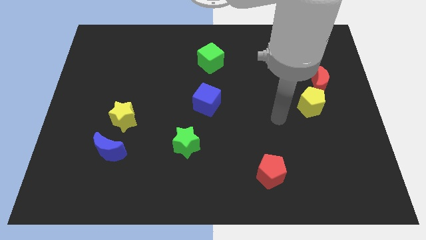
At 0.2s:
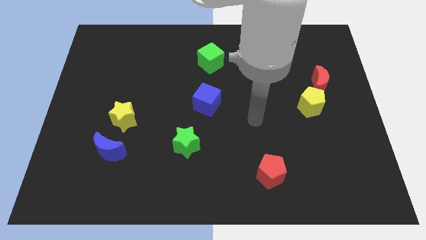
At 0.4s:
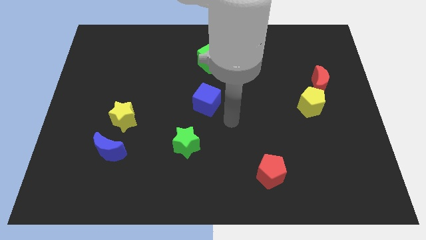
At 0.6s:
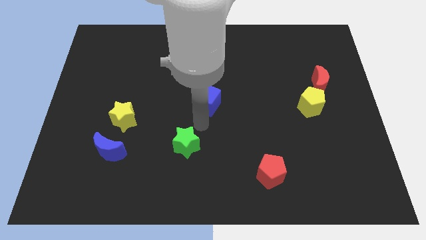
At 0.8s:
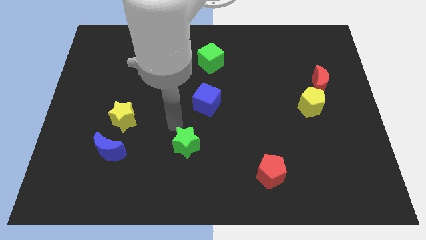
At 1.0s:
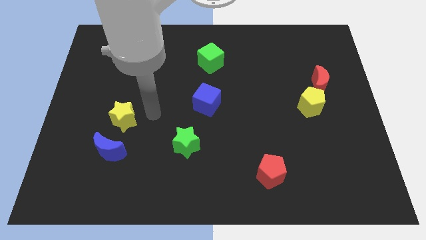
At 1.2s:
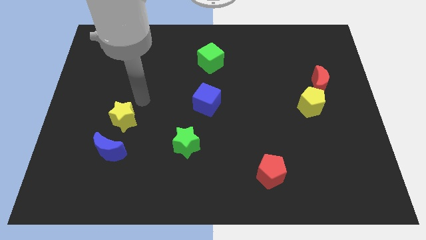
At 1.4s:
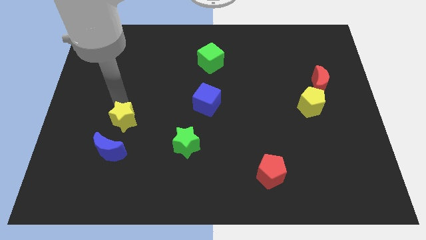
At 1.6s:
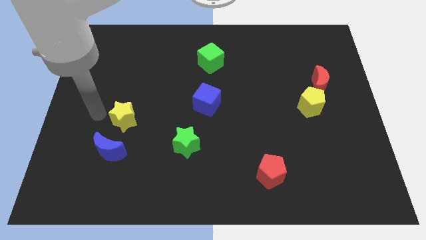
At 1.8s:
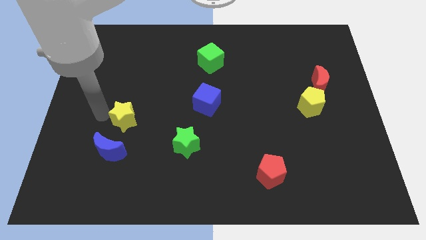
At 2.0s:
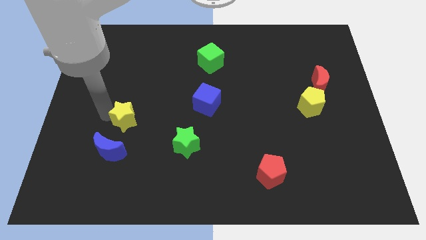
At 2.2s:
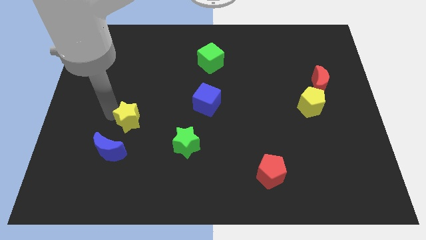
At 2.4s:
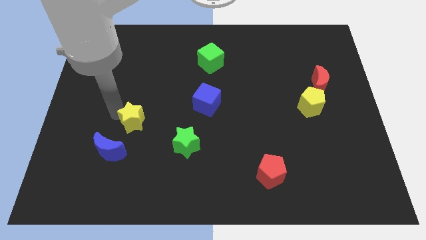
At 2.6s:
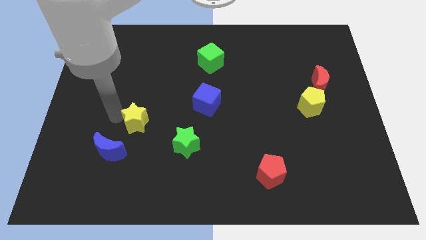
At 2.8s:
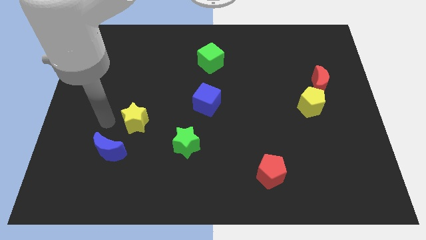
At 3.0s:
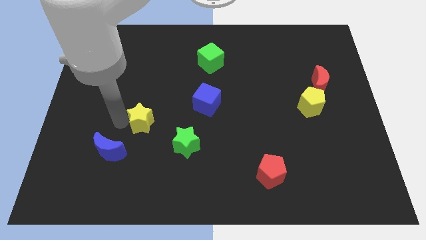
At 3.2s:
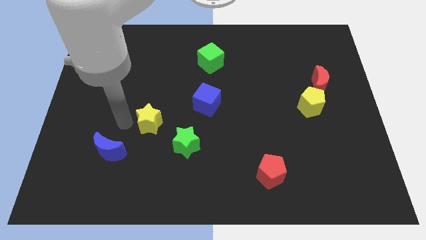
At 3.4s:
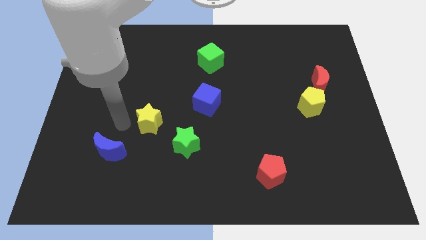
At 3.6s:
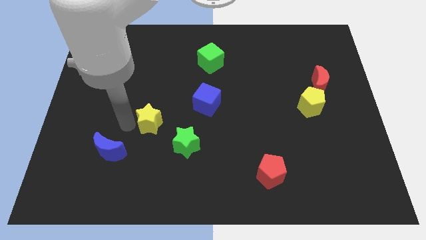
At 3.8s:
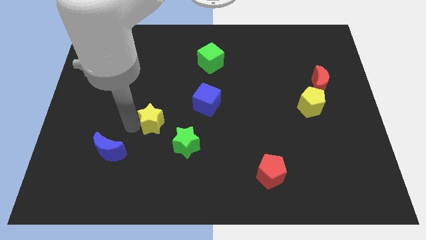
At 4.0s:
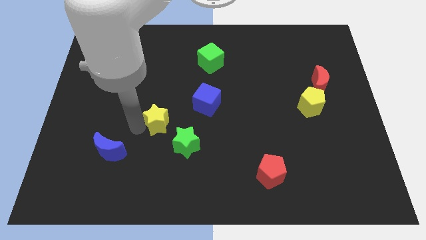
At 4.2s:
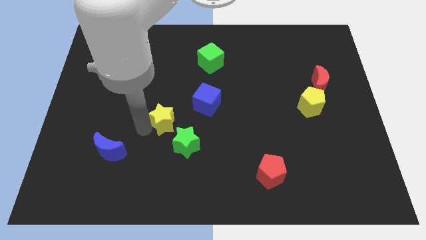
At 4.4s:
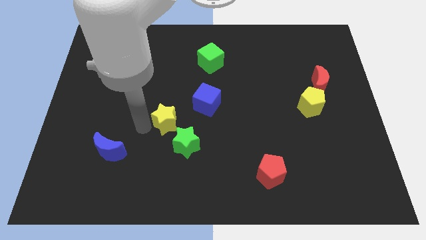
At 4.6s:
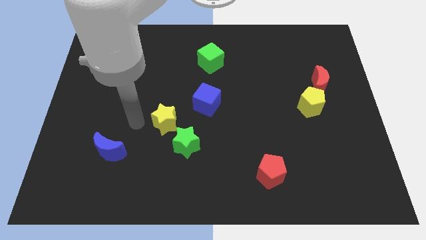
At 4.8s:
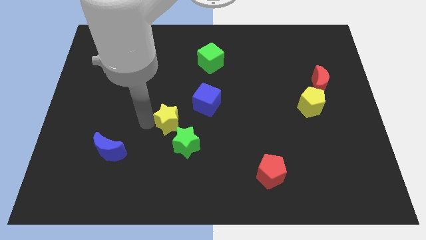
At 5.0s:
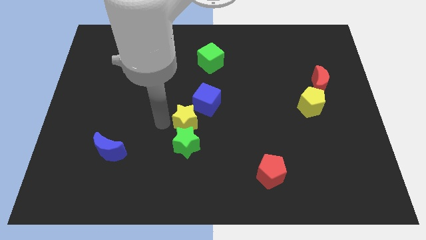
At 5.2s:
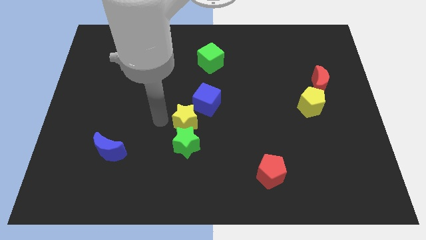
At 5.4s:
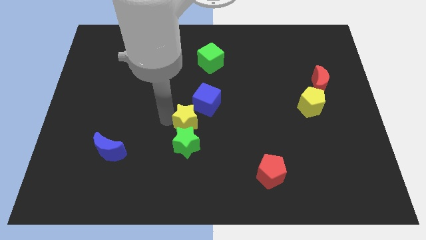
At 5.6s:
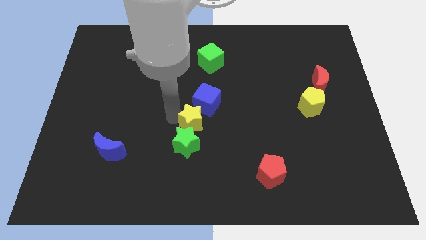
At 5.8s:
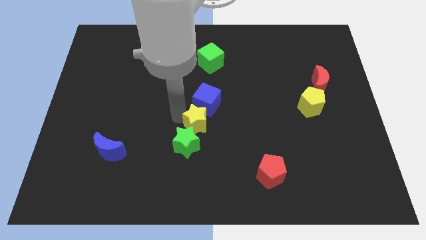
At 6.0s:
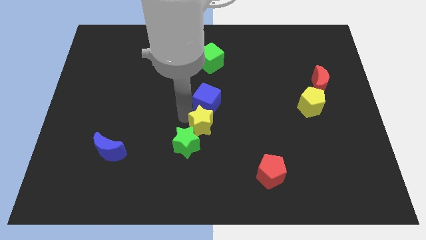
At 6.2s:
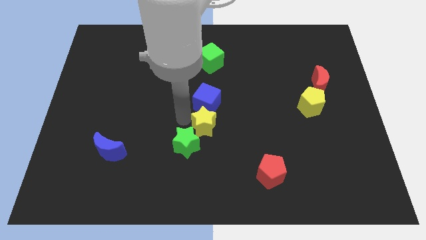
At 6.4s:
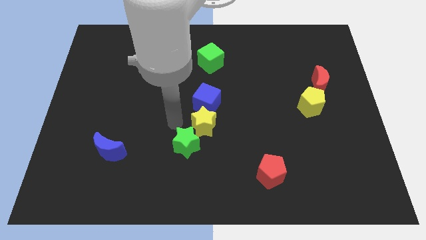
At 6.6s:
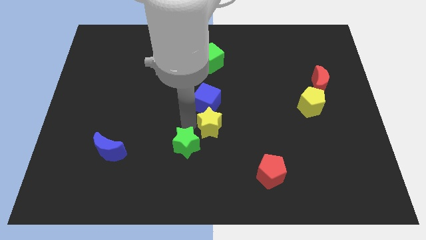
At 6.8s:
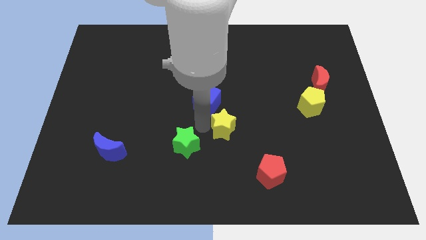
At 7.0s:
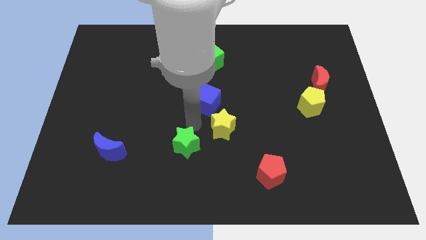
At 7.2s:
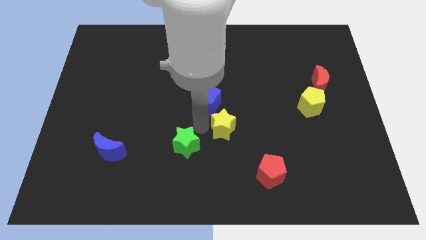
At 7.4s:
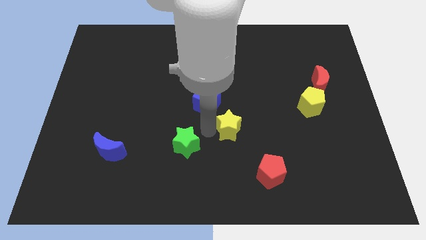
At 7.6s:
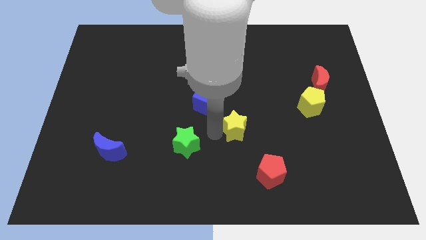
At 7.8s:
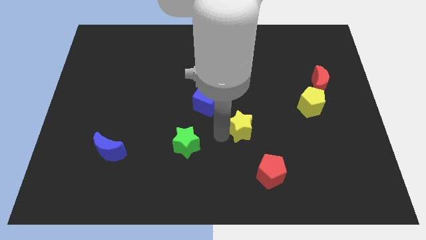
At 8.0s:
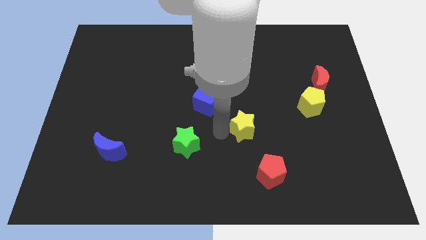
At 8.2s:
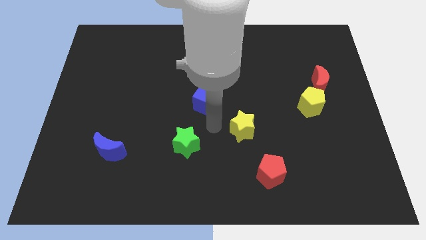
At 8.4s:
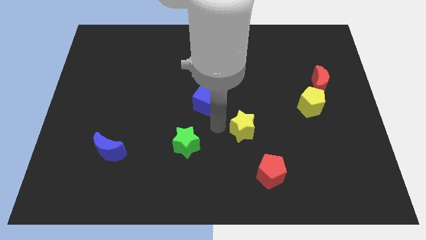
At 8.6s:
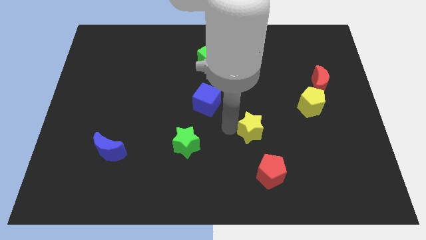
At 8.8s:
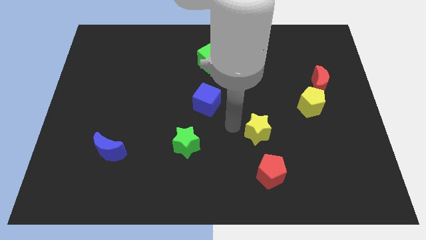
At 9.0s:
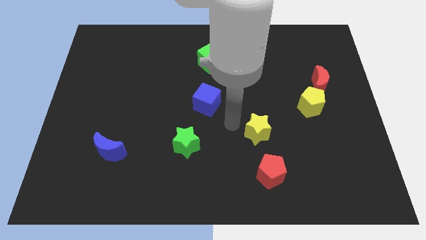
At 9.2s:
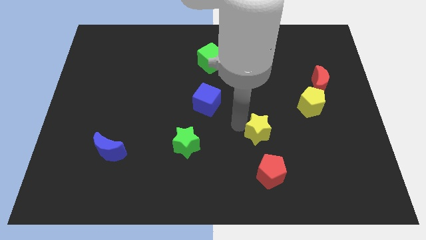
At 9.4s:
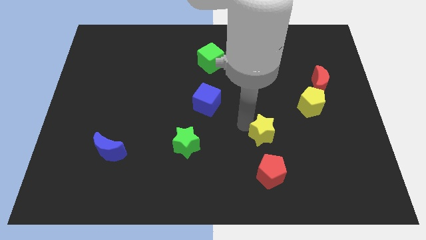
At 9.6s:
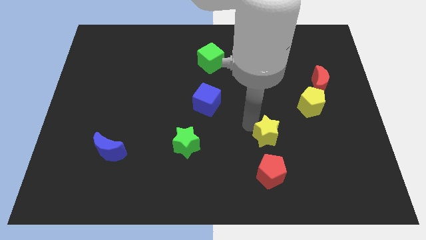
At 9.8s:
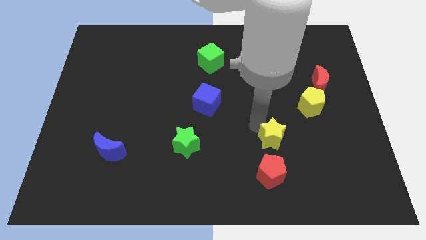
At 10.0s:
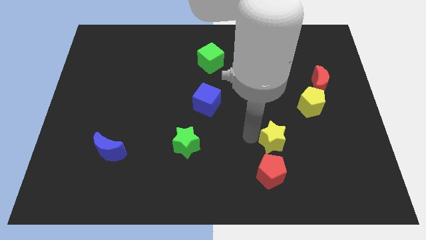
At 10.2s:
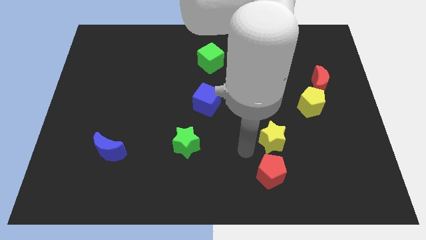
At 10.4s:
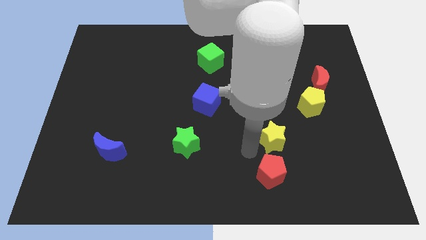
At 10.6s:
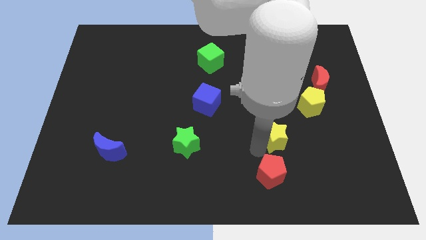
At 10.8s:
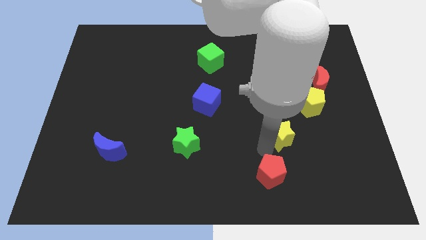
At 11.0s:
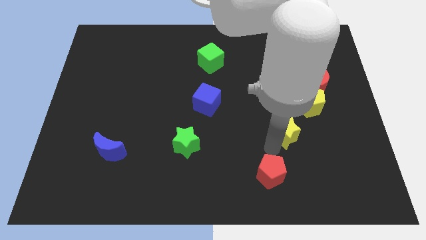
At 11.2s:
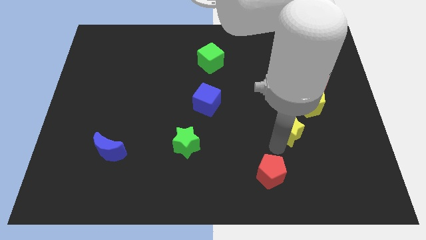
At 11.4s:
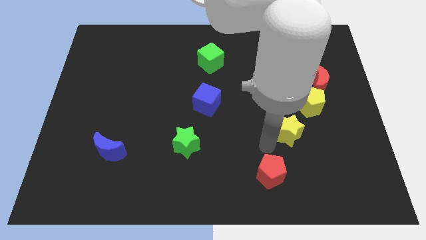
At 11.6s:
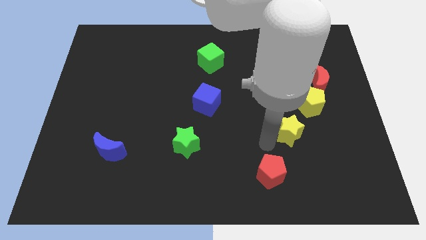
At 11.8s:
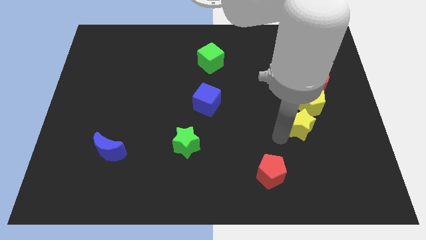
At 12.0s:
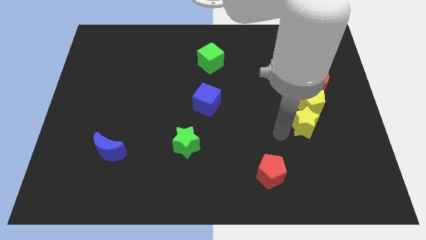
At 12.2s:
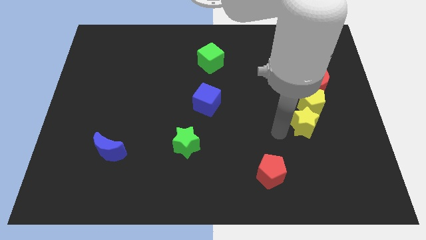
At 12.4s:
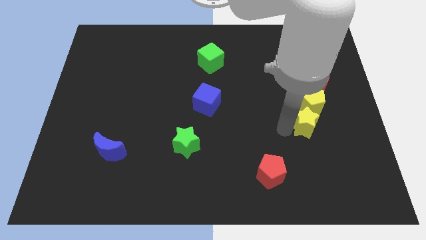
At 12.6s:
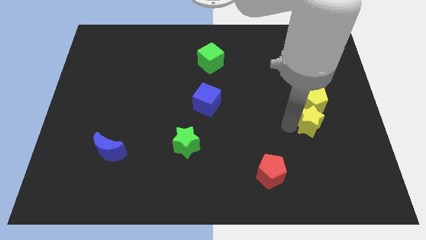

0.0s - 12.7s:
put the yellow star to the bottom side of the red moon

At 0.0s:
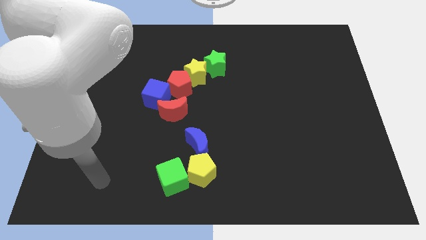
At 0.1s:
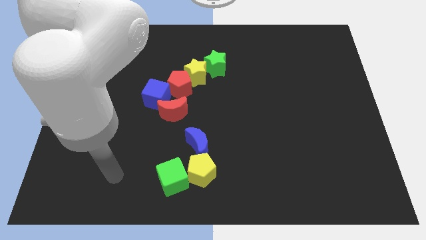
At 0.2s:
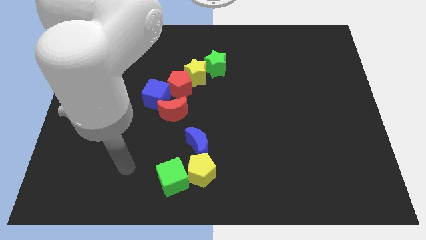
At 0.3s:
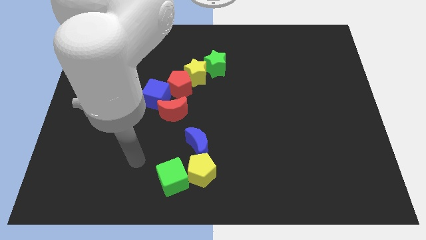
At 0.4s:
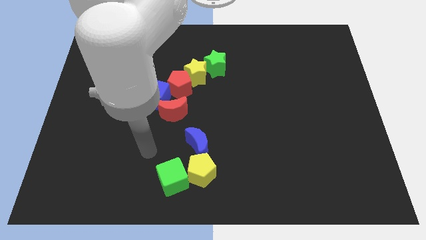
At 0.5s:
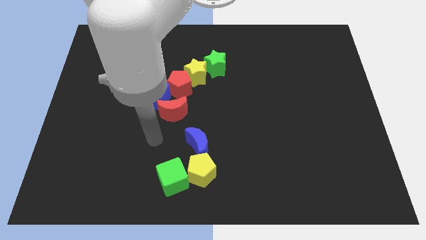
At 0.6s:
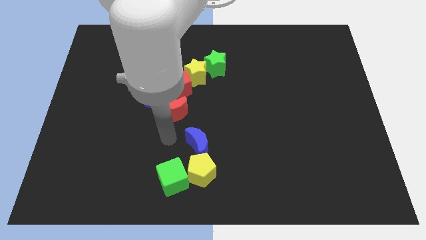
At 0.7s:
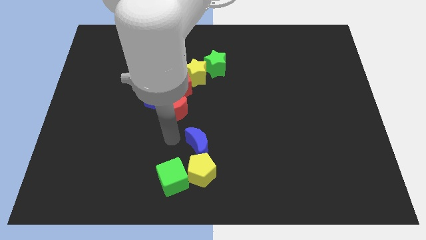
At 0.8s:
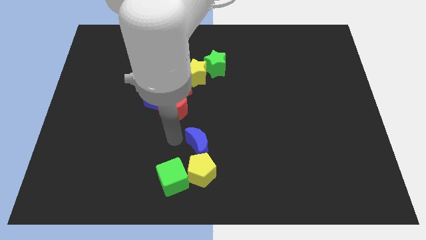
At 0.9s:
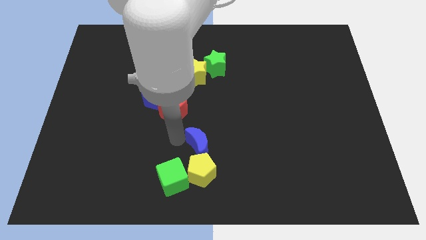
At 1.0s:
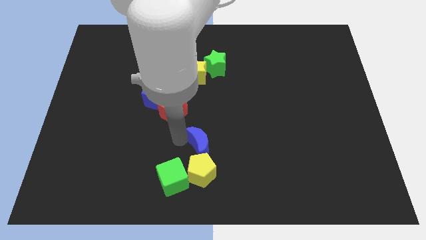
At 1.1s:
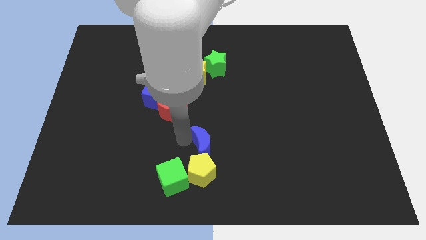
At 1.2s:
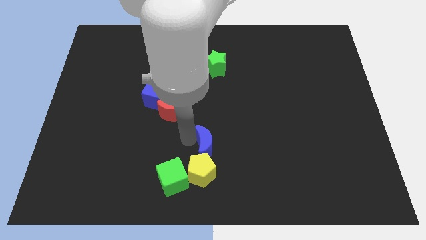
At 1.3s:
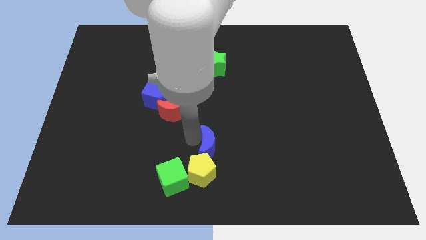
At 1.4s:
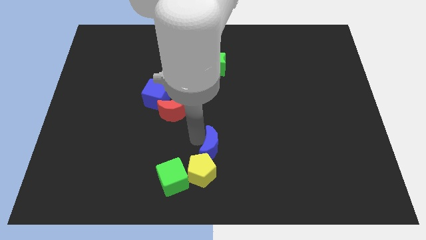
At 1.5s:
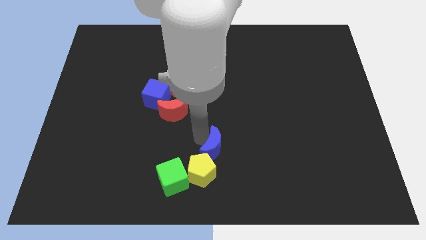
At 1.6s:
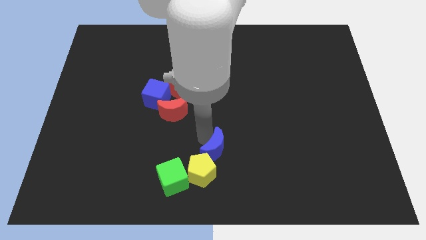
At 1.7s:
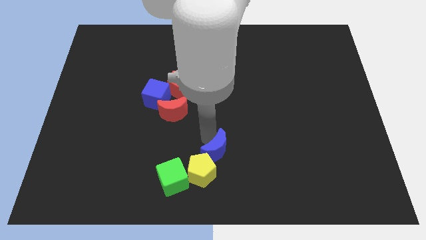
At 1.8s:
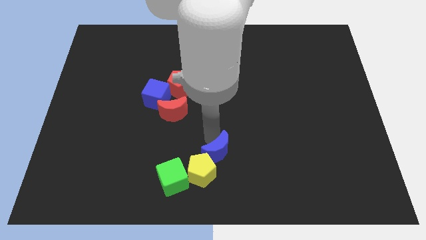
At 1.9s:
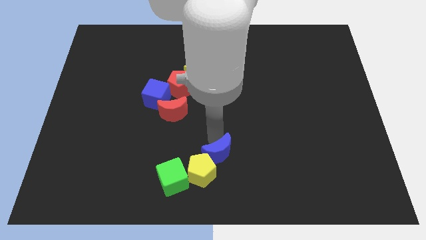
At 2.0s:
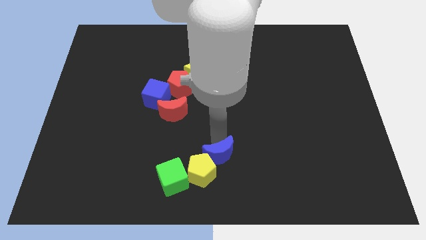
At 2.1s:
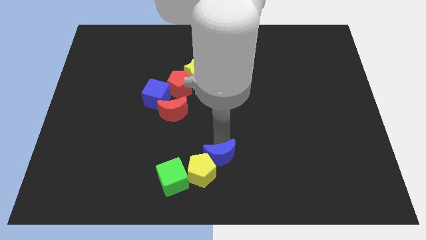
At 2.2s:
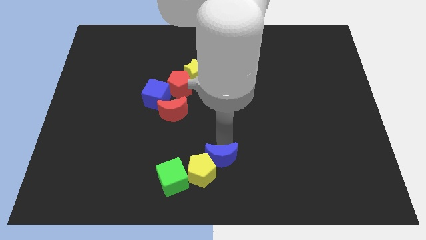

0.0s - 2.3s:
put the blue moon right of the green cube
